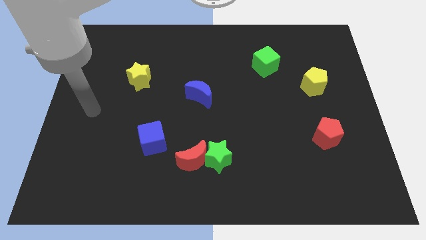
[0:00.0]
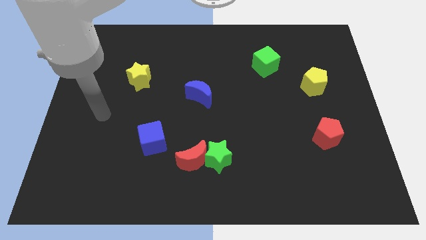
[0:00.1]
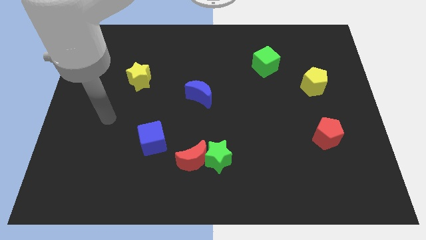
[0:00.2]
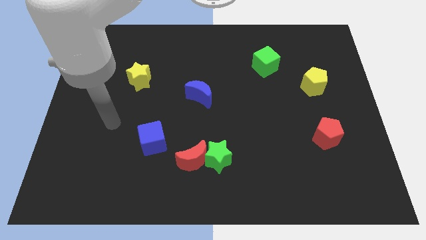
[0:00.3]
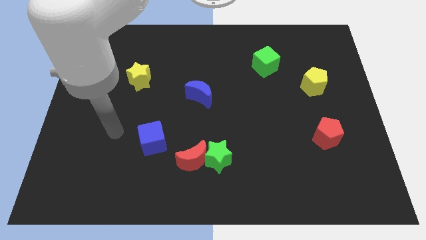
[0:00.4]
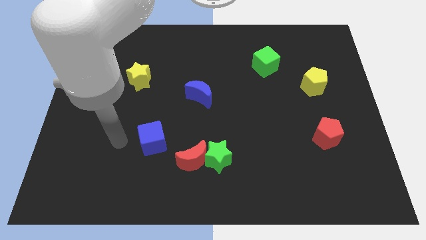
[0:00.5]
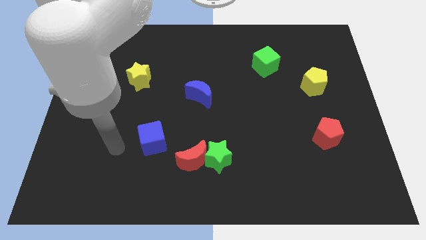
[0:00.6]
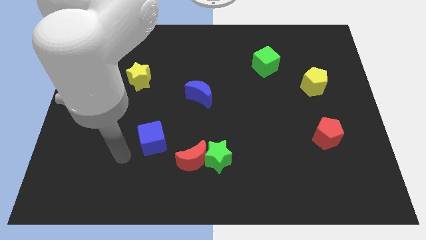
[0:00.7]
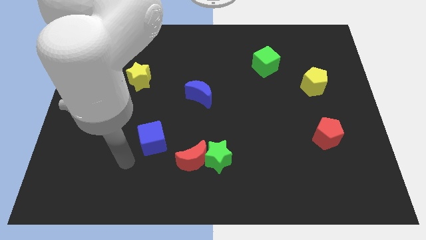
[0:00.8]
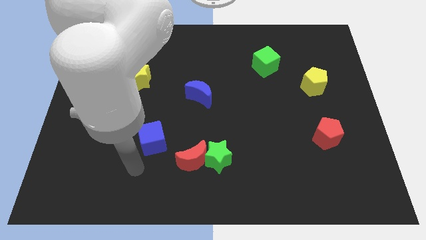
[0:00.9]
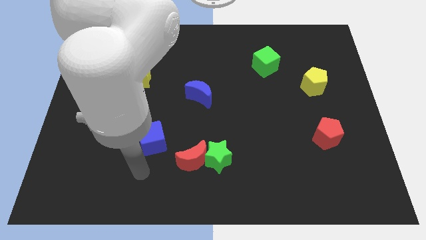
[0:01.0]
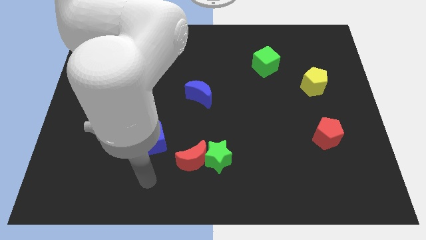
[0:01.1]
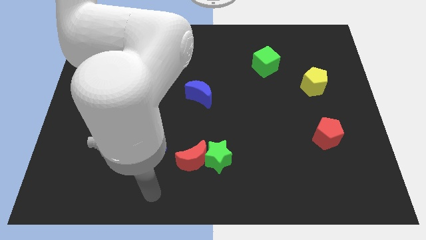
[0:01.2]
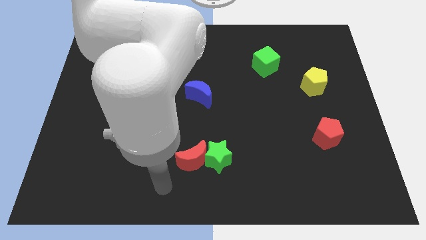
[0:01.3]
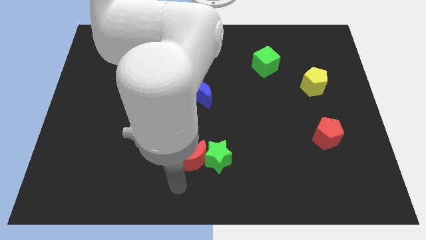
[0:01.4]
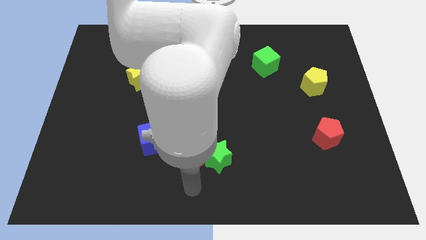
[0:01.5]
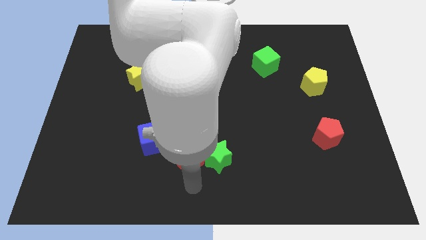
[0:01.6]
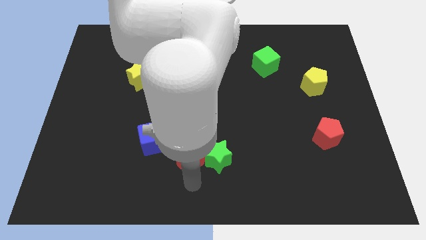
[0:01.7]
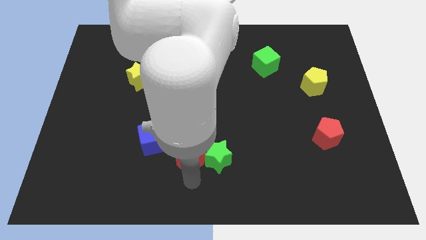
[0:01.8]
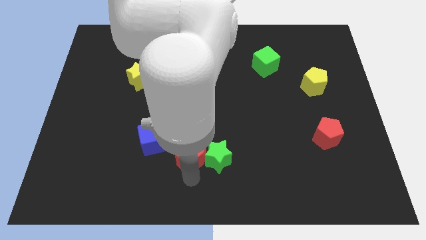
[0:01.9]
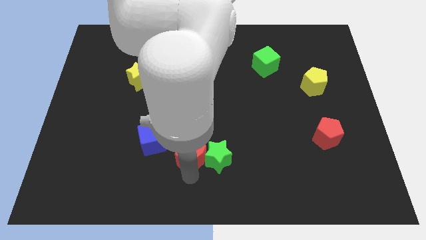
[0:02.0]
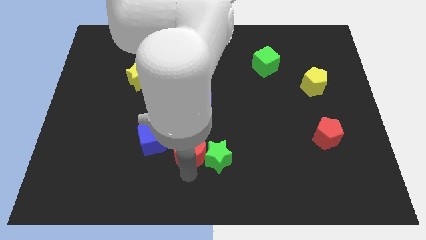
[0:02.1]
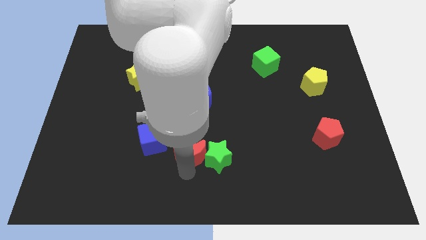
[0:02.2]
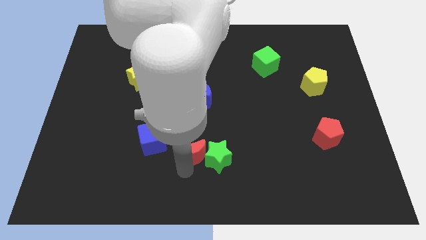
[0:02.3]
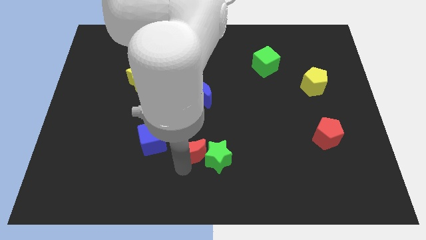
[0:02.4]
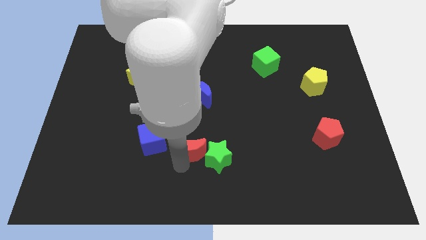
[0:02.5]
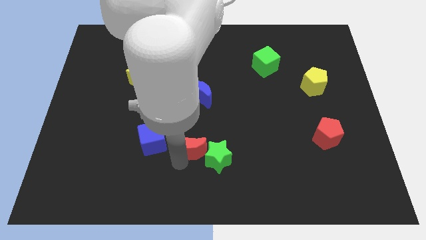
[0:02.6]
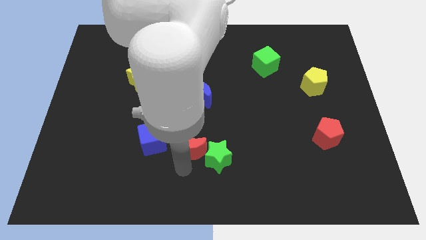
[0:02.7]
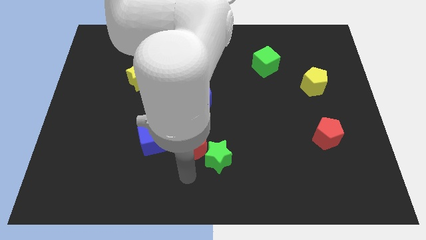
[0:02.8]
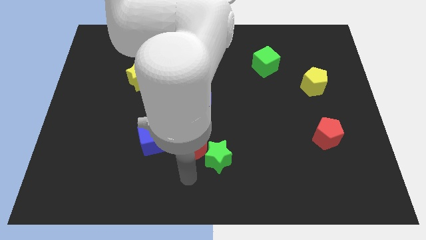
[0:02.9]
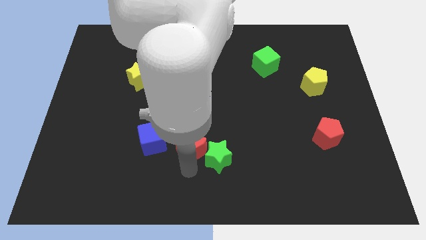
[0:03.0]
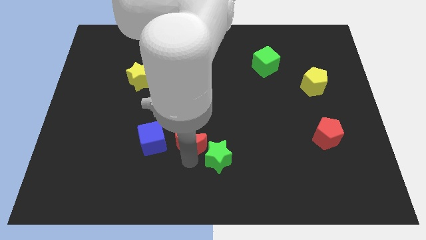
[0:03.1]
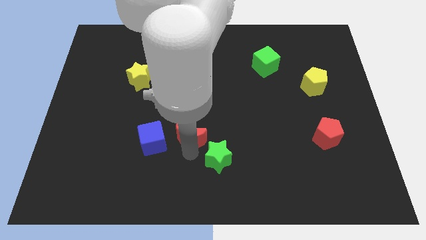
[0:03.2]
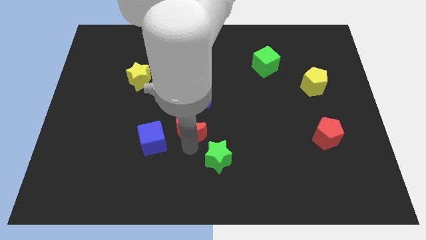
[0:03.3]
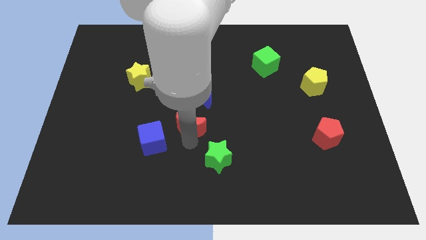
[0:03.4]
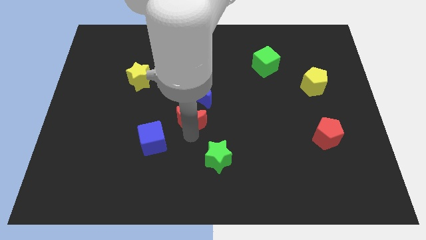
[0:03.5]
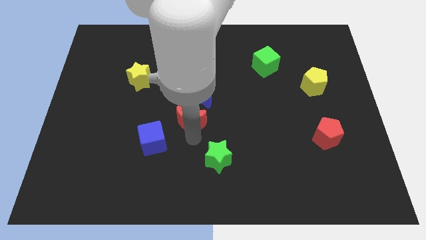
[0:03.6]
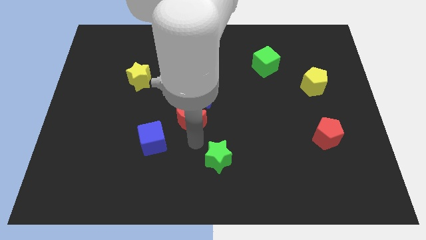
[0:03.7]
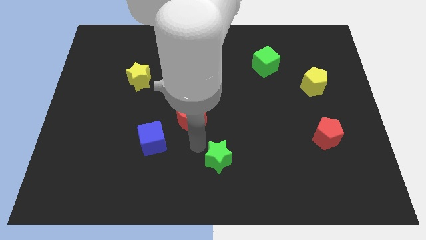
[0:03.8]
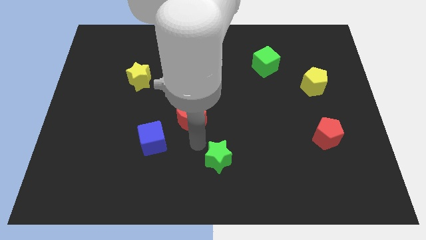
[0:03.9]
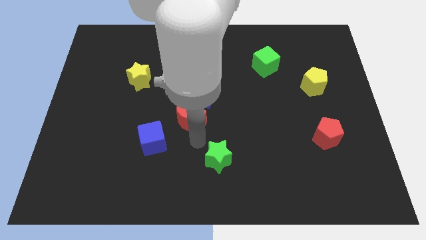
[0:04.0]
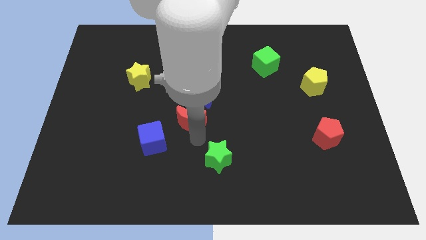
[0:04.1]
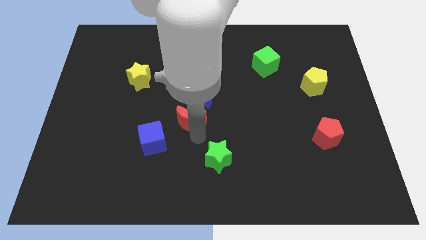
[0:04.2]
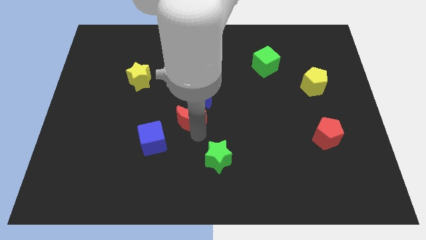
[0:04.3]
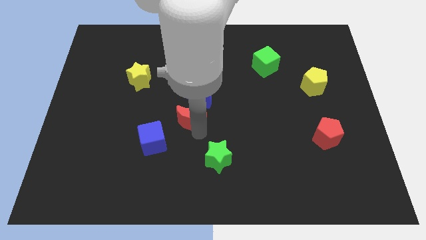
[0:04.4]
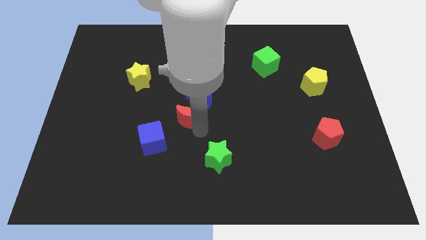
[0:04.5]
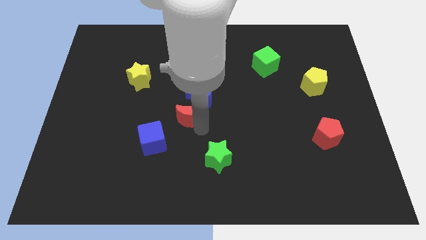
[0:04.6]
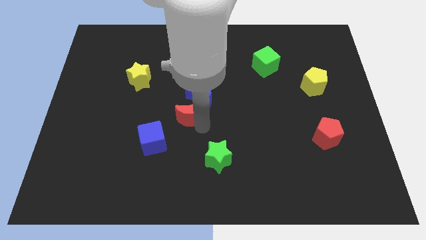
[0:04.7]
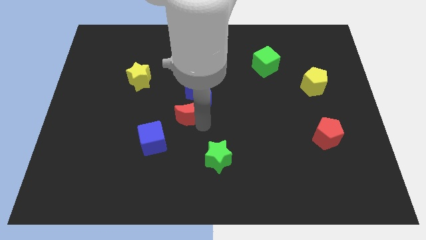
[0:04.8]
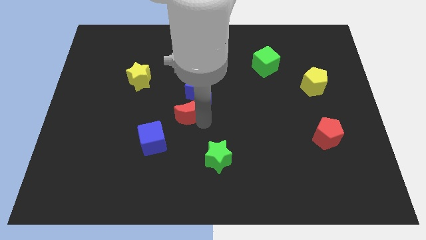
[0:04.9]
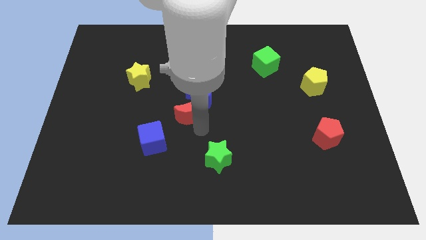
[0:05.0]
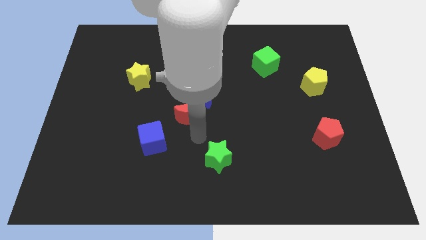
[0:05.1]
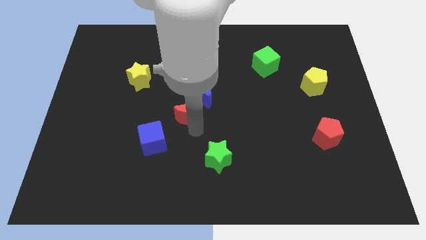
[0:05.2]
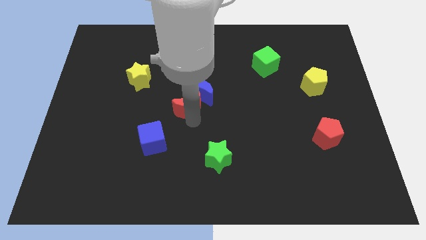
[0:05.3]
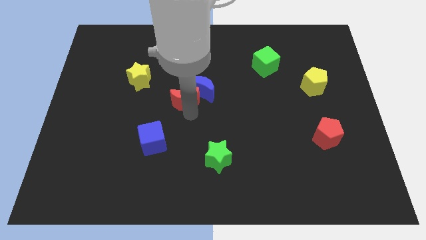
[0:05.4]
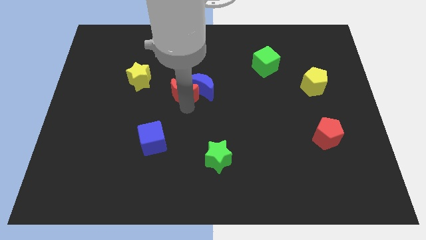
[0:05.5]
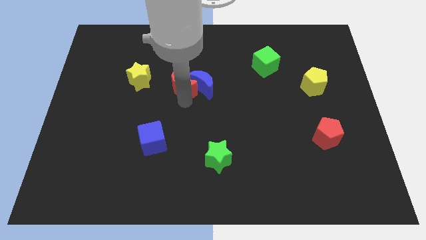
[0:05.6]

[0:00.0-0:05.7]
push the red moon diagonally up and to the left of the blue moon

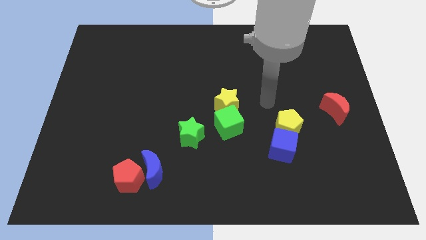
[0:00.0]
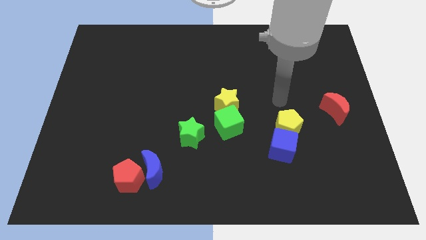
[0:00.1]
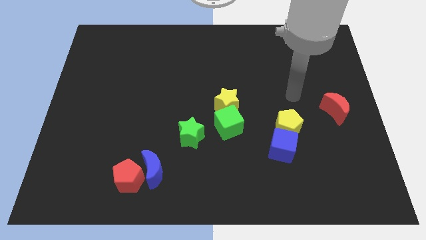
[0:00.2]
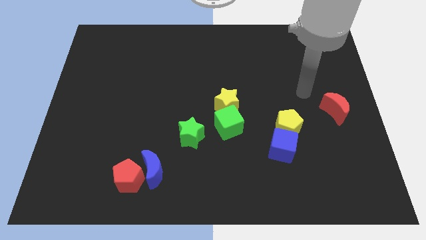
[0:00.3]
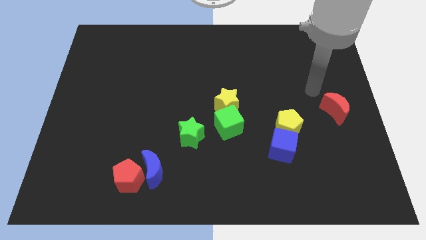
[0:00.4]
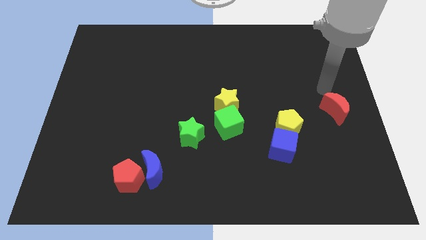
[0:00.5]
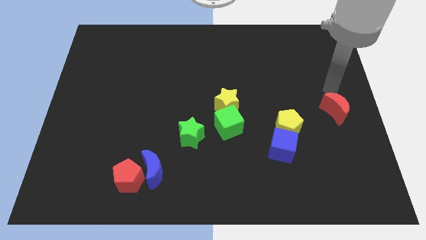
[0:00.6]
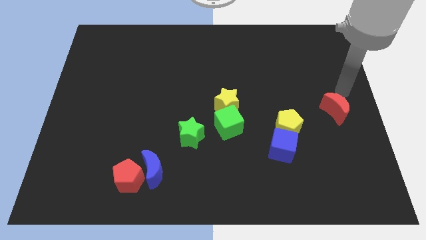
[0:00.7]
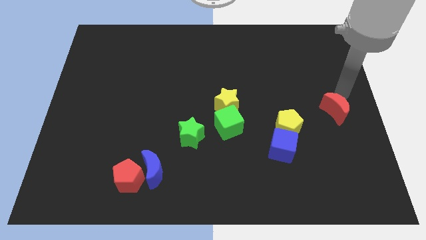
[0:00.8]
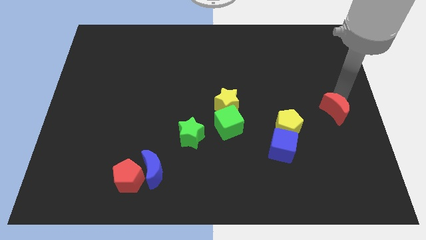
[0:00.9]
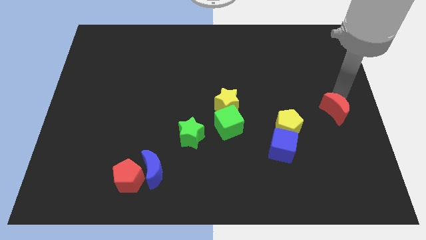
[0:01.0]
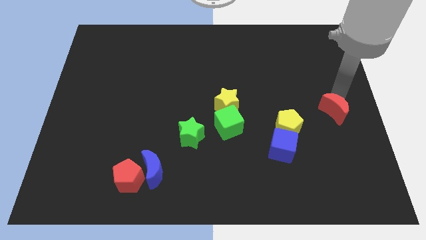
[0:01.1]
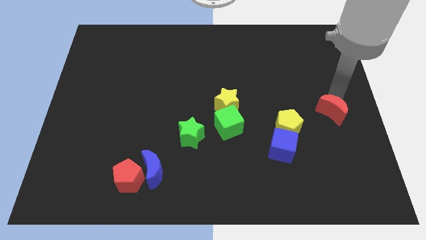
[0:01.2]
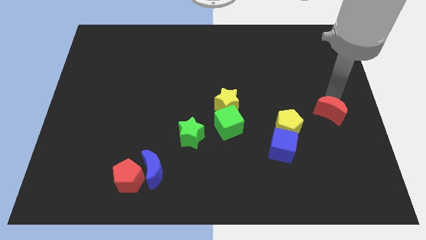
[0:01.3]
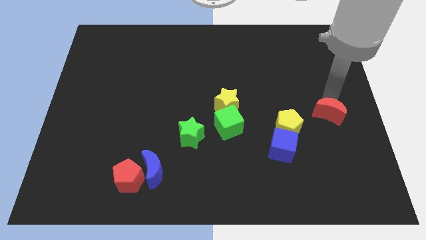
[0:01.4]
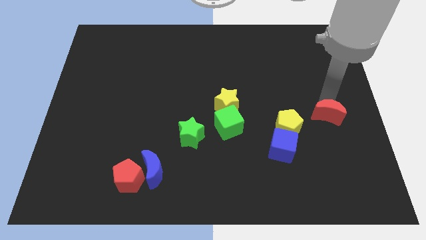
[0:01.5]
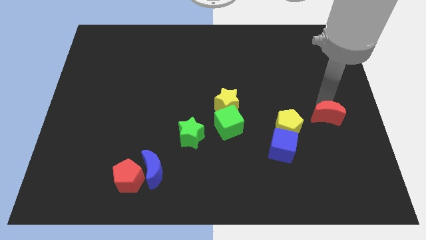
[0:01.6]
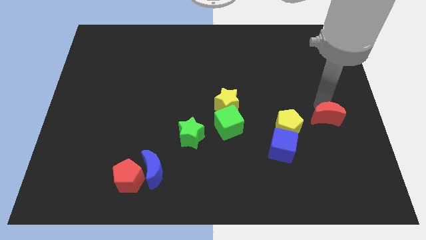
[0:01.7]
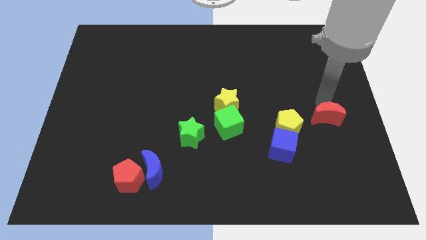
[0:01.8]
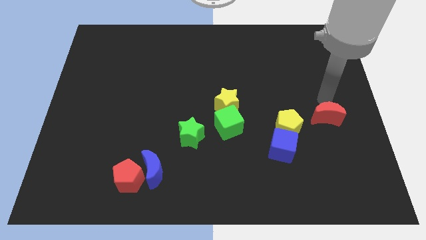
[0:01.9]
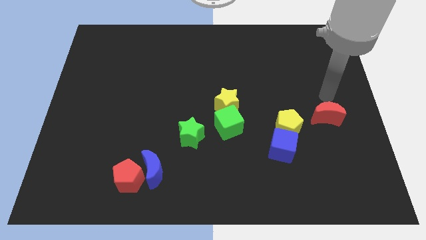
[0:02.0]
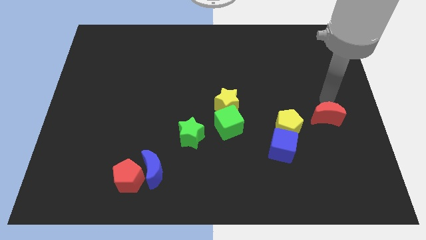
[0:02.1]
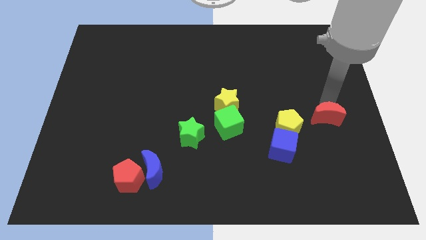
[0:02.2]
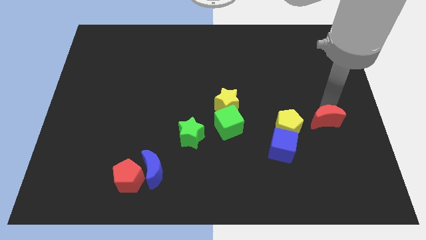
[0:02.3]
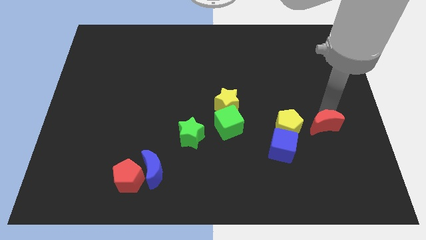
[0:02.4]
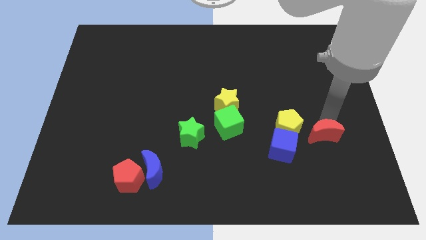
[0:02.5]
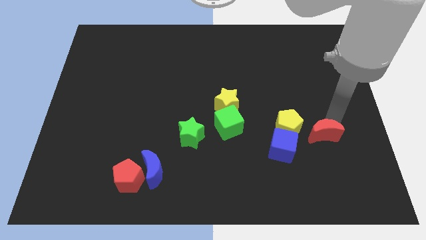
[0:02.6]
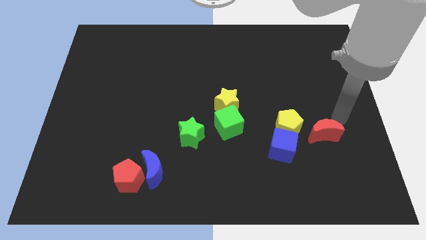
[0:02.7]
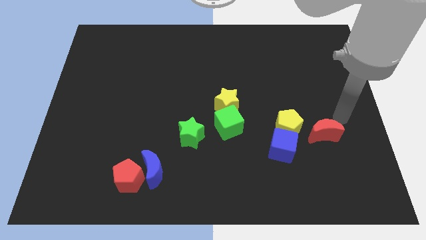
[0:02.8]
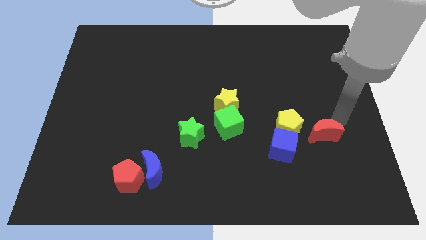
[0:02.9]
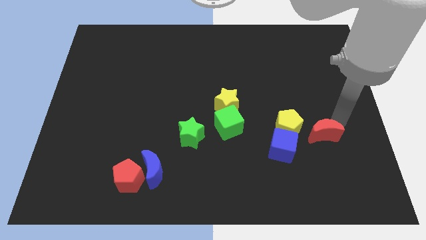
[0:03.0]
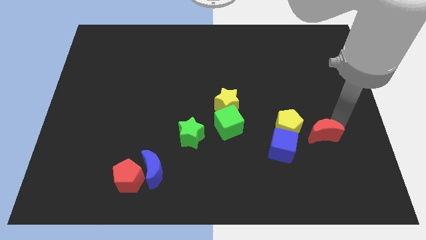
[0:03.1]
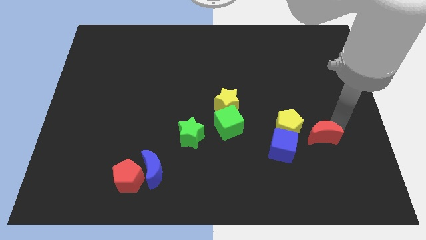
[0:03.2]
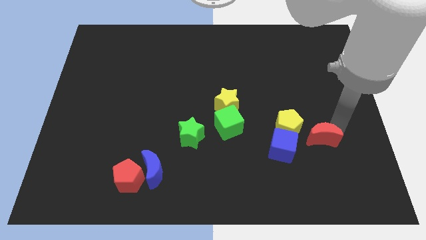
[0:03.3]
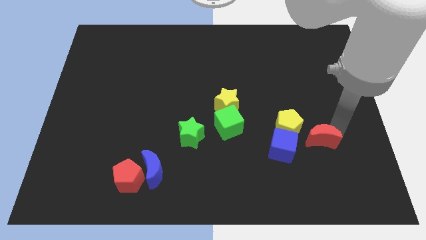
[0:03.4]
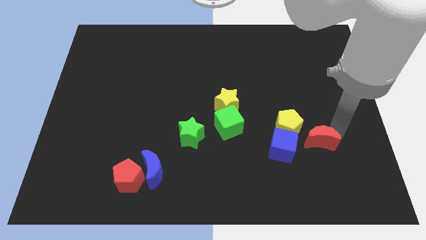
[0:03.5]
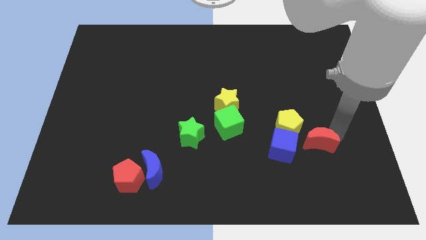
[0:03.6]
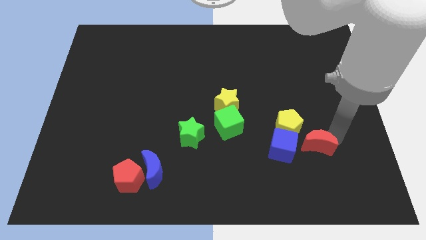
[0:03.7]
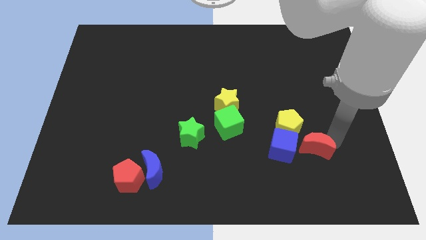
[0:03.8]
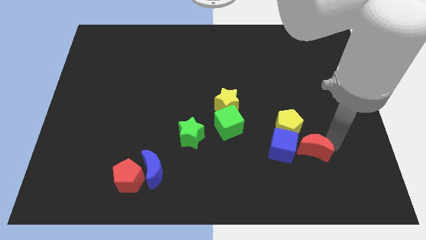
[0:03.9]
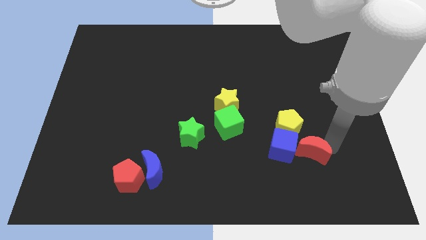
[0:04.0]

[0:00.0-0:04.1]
push the red moon below the yellow pentagon
